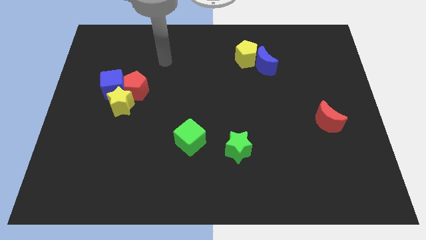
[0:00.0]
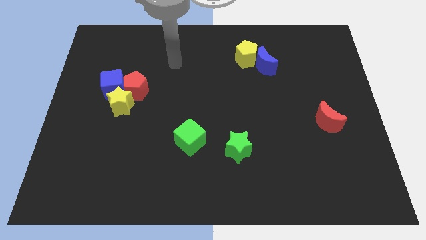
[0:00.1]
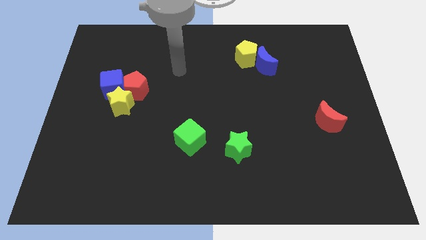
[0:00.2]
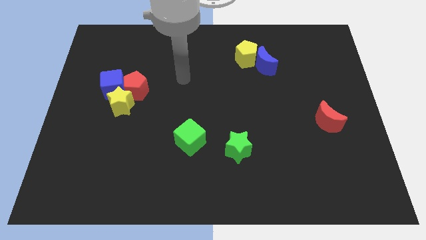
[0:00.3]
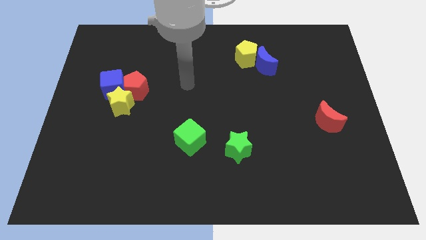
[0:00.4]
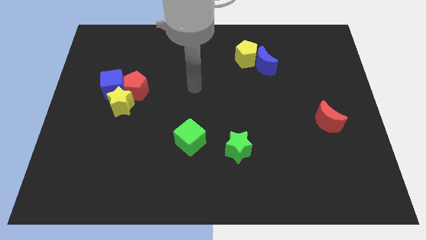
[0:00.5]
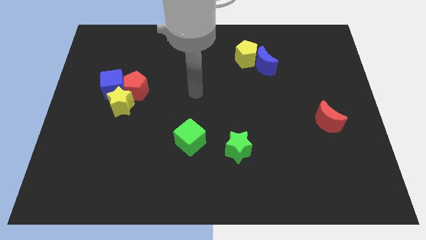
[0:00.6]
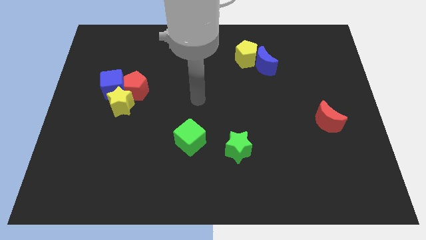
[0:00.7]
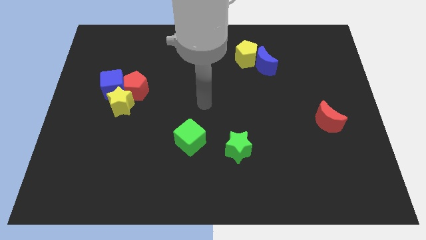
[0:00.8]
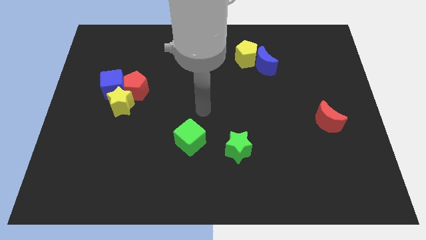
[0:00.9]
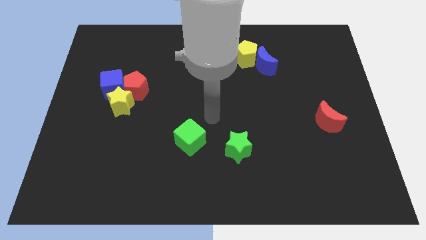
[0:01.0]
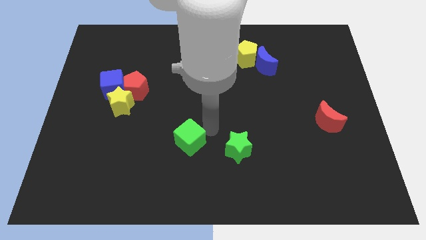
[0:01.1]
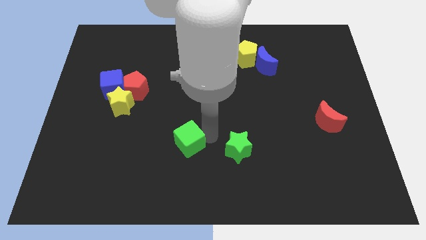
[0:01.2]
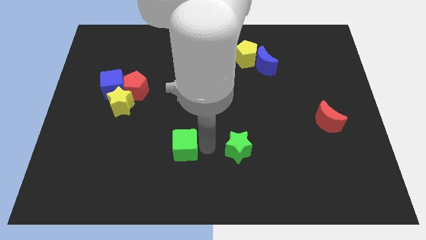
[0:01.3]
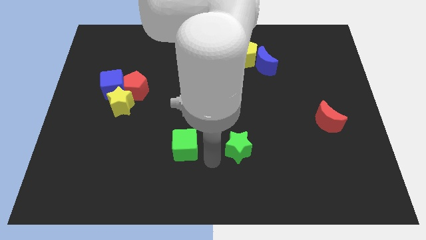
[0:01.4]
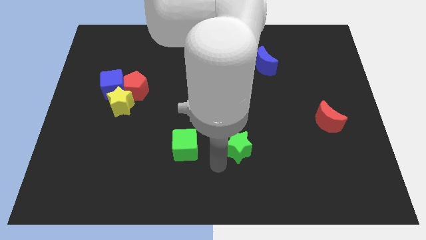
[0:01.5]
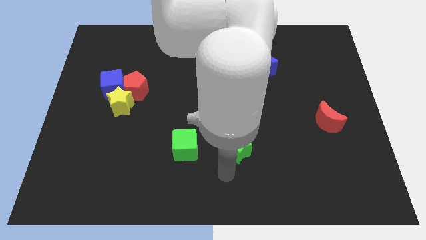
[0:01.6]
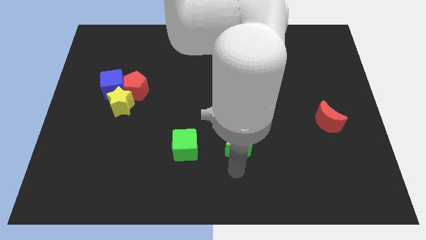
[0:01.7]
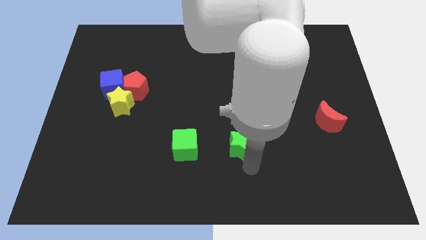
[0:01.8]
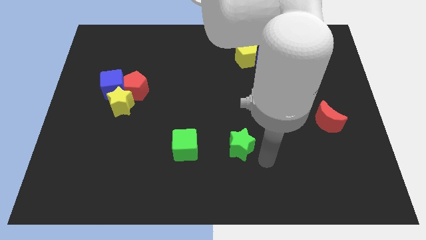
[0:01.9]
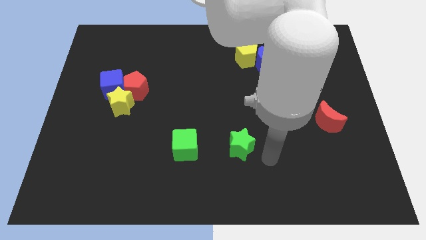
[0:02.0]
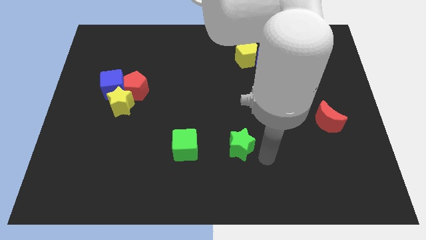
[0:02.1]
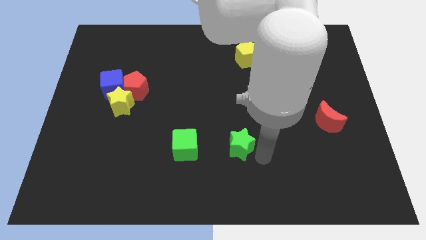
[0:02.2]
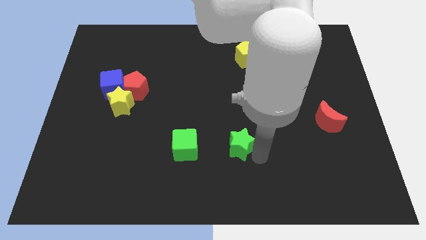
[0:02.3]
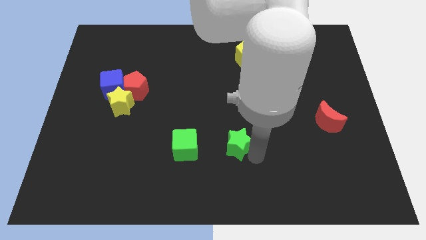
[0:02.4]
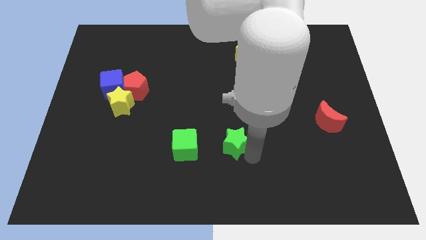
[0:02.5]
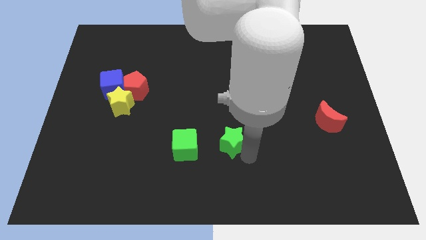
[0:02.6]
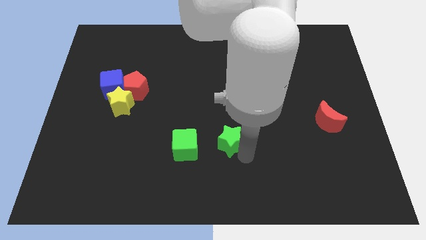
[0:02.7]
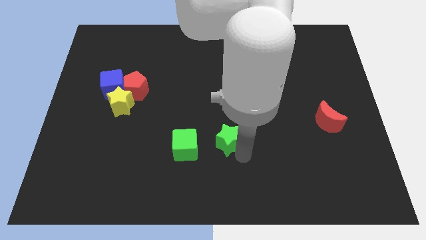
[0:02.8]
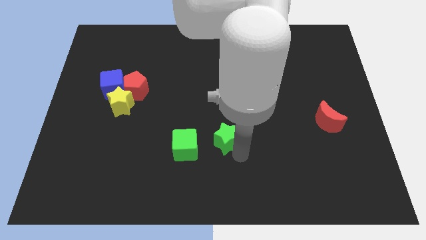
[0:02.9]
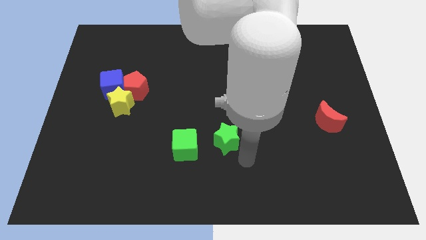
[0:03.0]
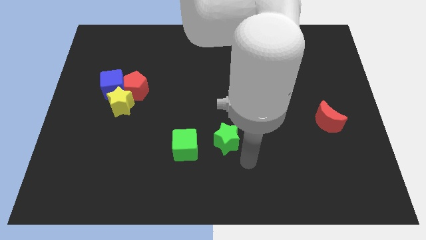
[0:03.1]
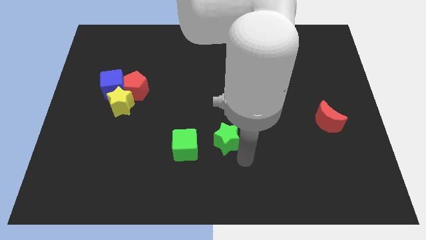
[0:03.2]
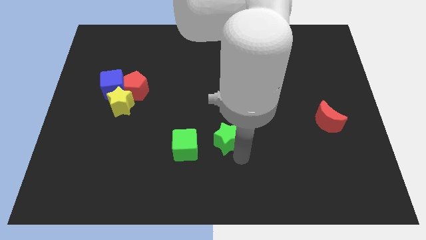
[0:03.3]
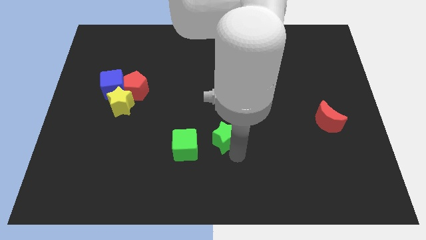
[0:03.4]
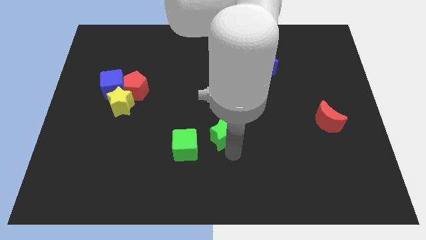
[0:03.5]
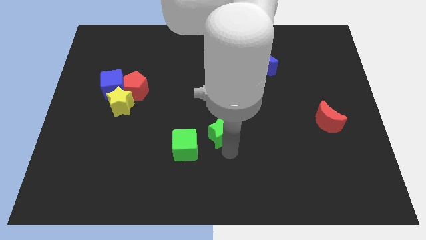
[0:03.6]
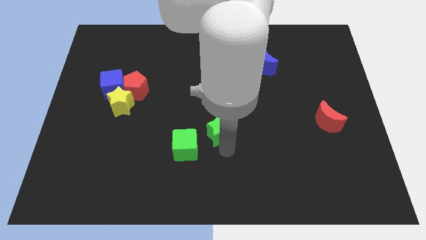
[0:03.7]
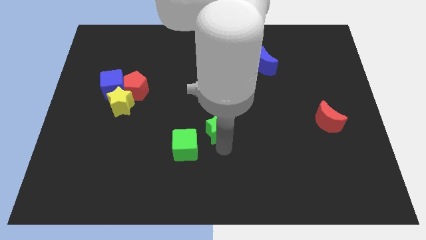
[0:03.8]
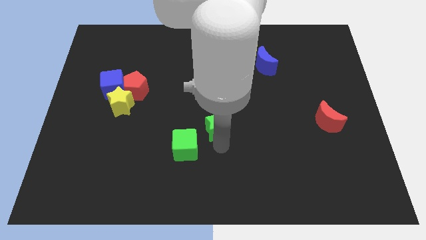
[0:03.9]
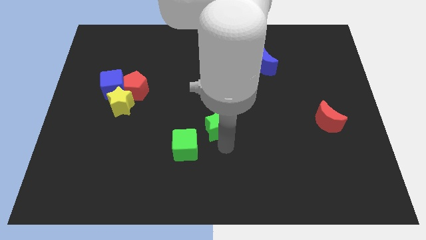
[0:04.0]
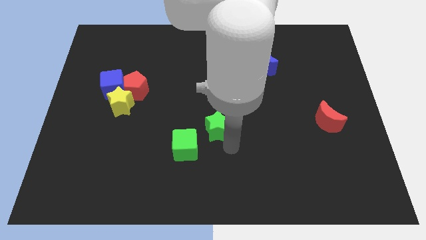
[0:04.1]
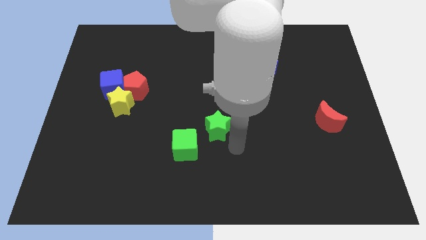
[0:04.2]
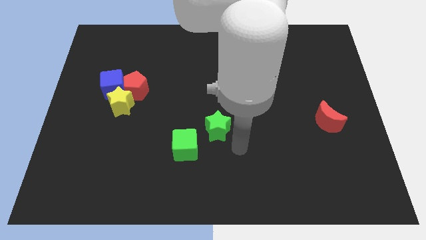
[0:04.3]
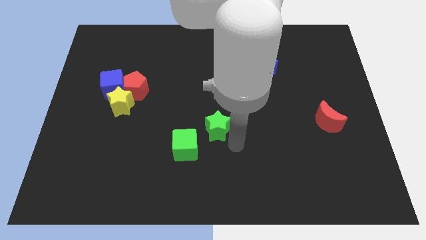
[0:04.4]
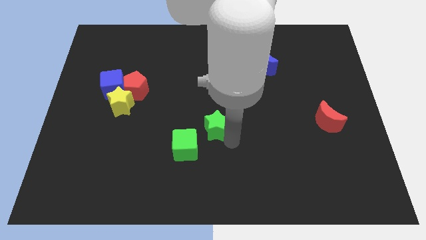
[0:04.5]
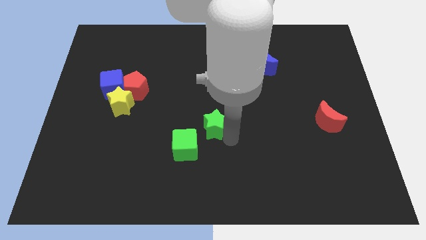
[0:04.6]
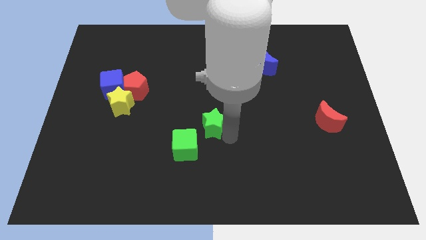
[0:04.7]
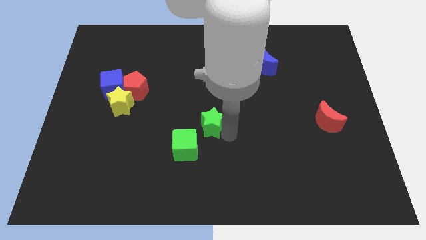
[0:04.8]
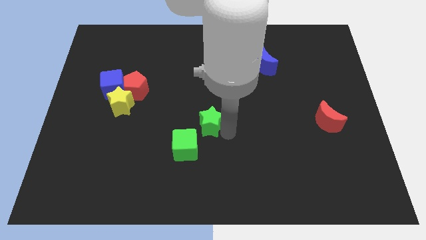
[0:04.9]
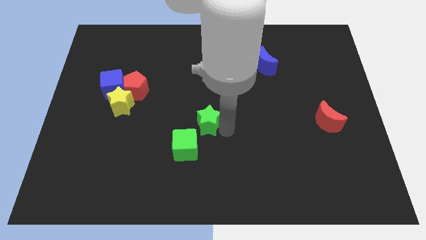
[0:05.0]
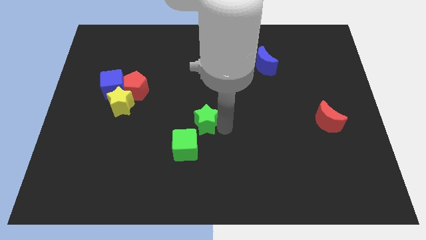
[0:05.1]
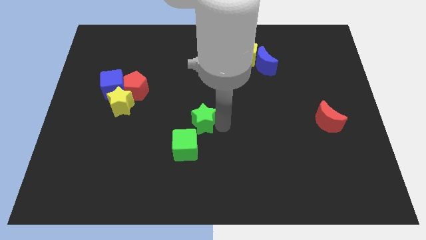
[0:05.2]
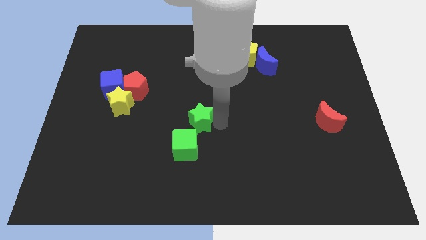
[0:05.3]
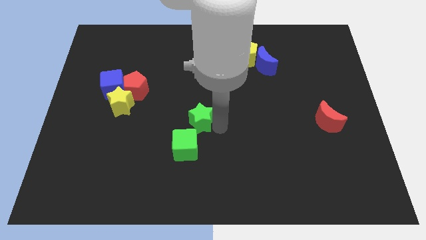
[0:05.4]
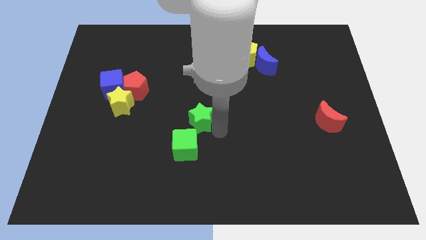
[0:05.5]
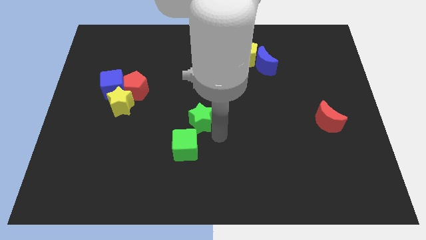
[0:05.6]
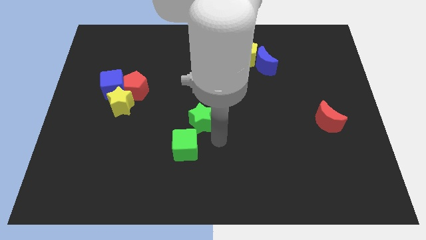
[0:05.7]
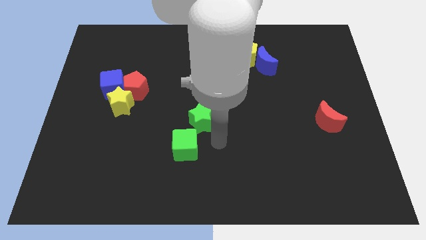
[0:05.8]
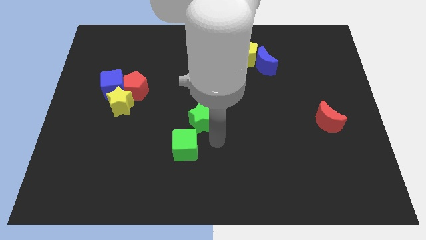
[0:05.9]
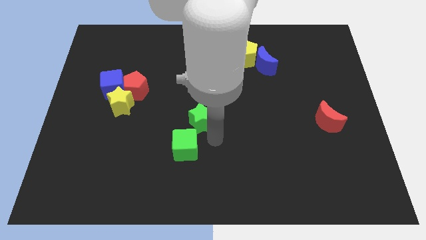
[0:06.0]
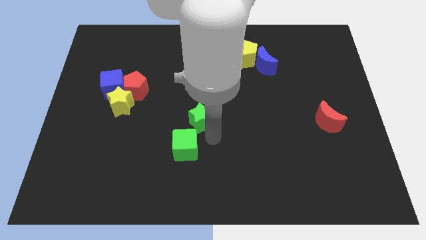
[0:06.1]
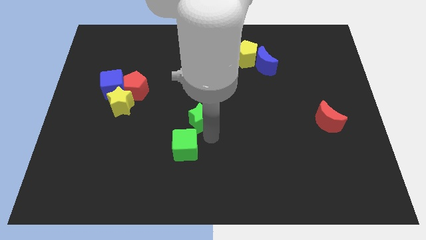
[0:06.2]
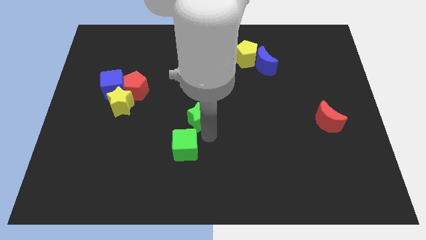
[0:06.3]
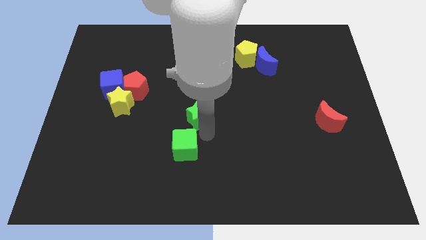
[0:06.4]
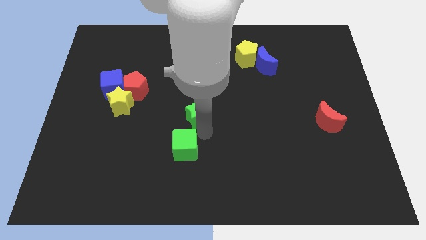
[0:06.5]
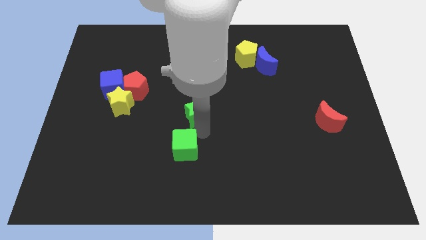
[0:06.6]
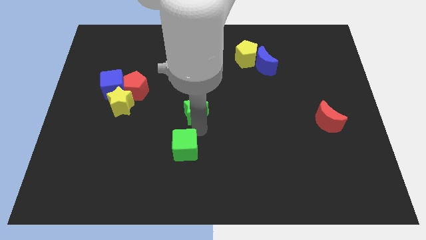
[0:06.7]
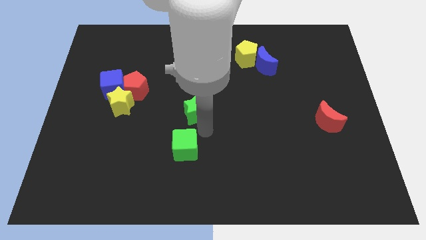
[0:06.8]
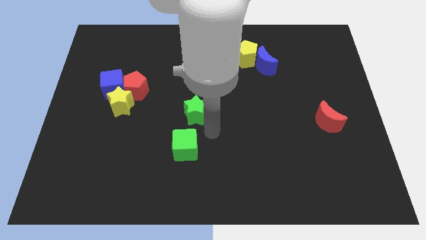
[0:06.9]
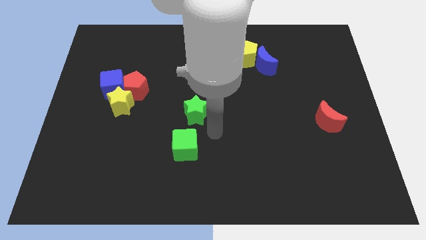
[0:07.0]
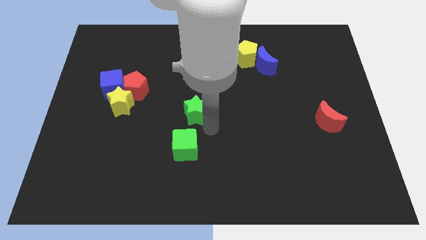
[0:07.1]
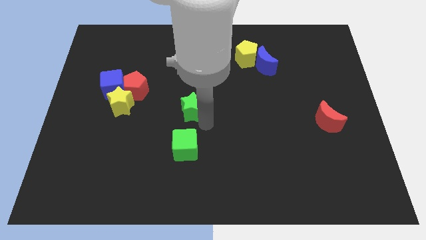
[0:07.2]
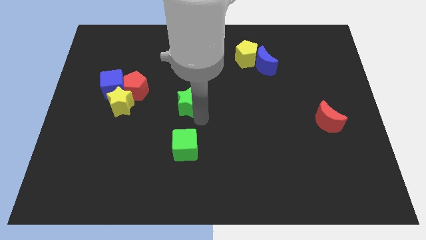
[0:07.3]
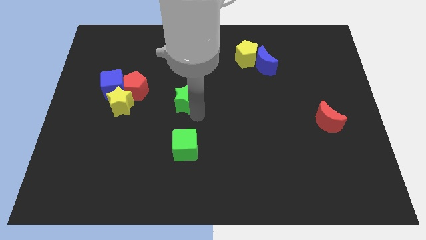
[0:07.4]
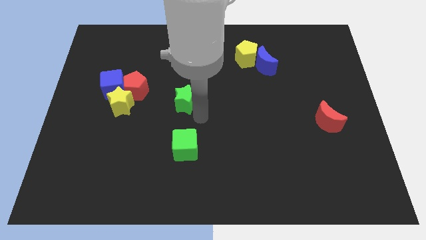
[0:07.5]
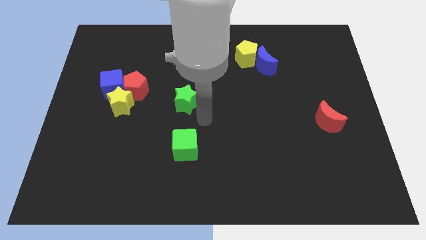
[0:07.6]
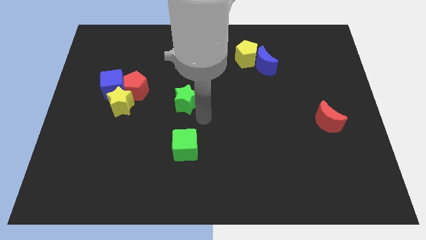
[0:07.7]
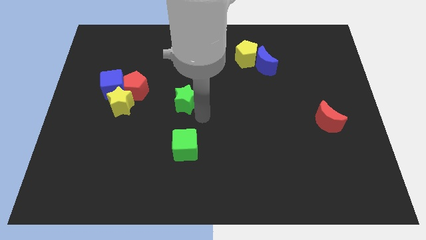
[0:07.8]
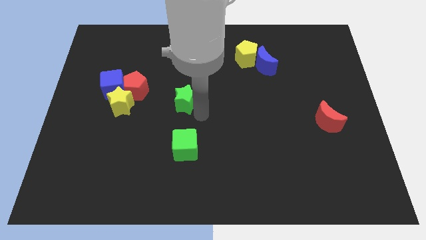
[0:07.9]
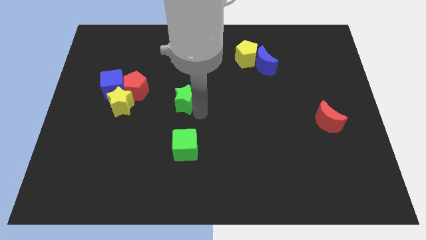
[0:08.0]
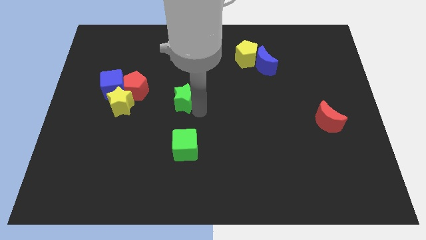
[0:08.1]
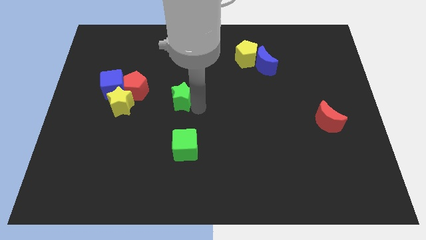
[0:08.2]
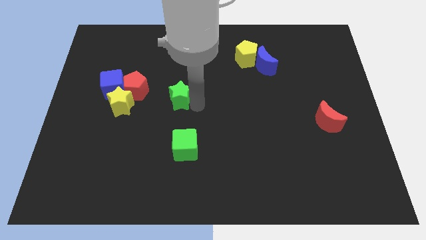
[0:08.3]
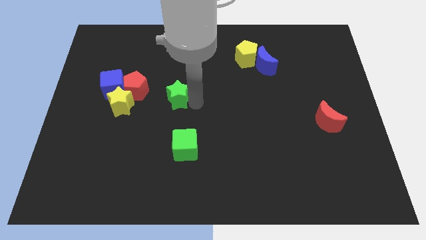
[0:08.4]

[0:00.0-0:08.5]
move the green star up and to the left diagonally
